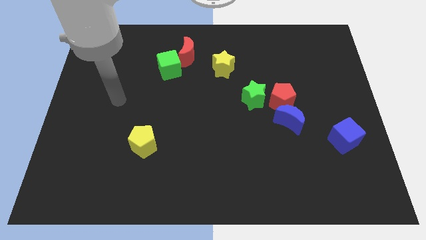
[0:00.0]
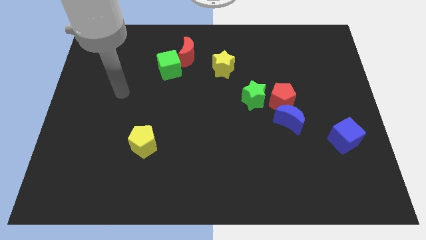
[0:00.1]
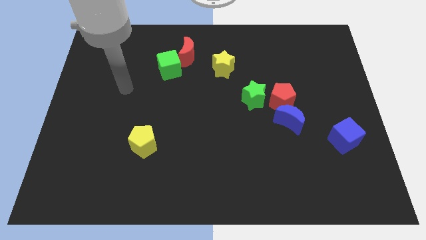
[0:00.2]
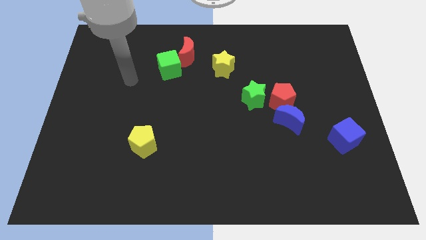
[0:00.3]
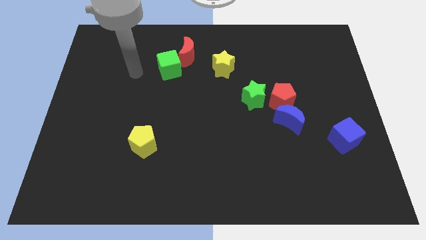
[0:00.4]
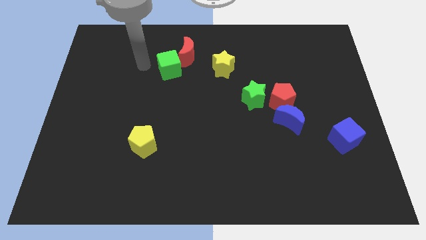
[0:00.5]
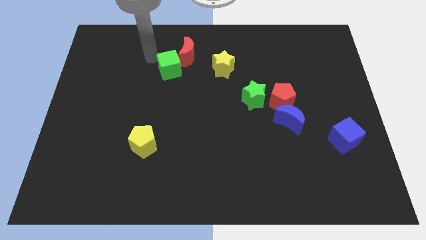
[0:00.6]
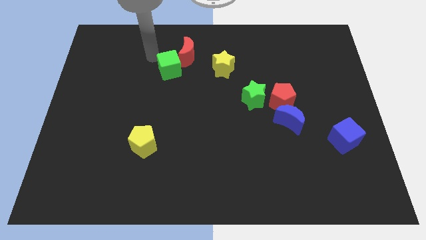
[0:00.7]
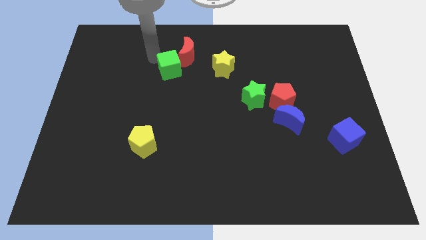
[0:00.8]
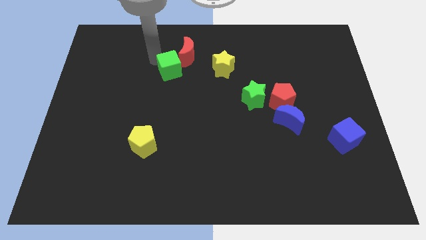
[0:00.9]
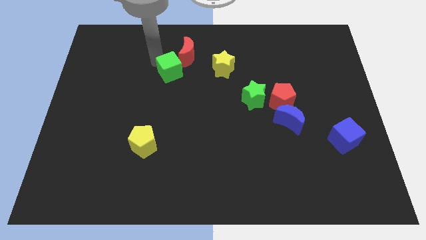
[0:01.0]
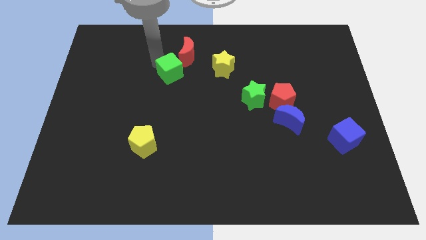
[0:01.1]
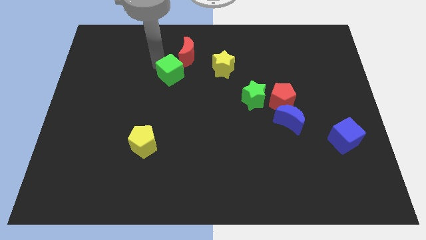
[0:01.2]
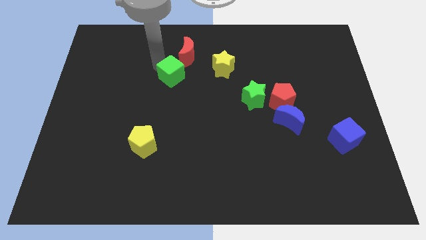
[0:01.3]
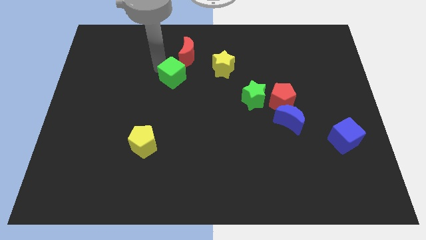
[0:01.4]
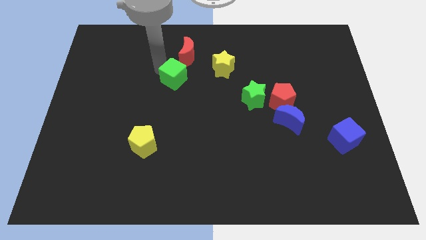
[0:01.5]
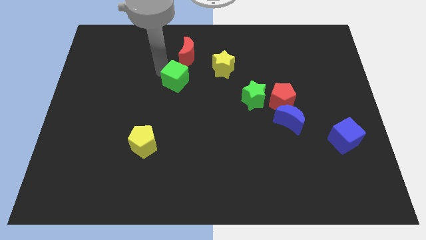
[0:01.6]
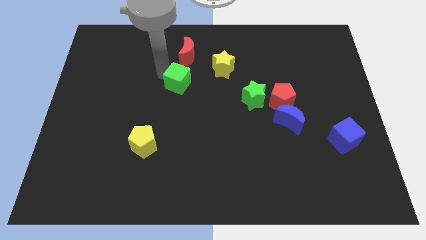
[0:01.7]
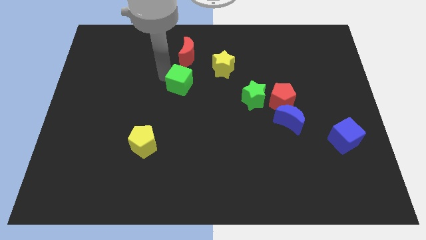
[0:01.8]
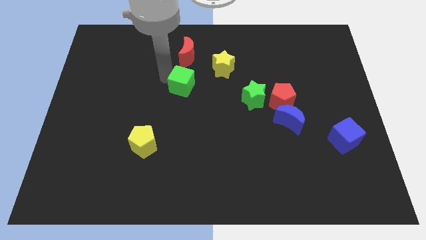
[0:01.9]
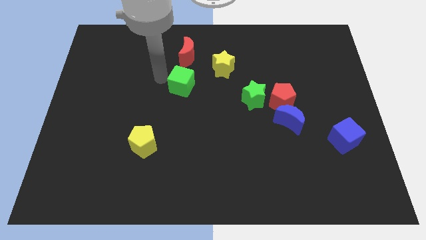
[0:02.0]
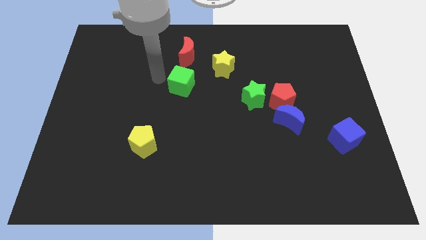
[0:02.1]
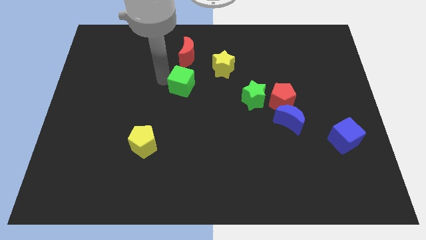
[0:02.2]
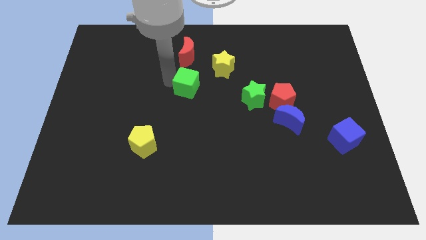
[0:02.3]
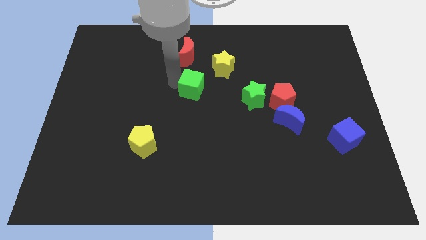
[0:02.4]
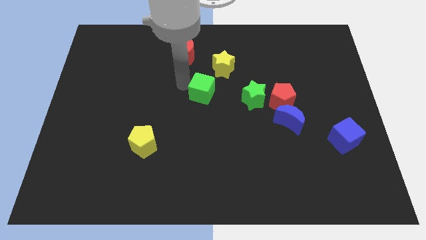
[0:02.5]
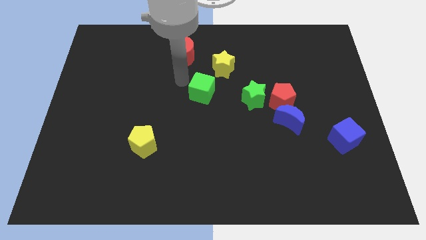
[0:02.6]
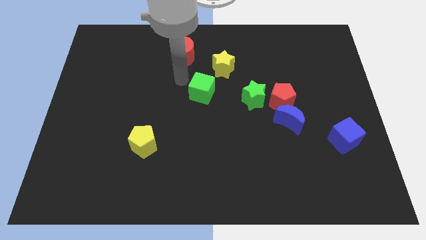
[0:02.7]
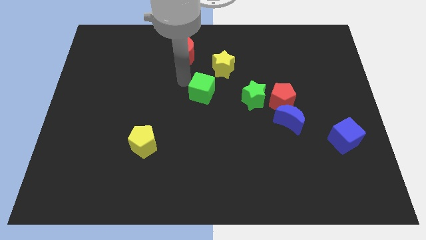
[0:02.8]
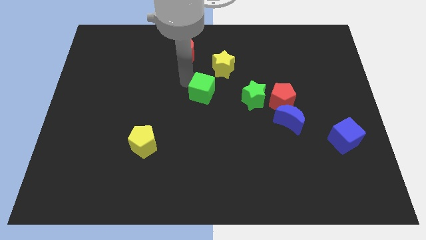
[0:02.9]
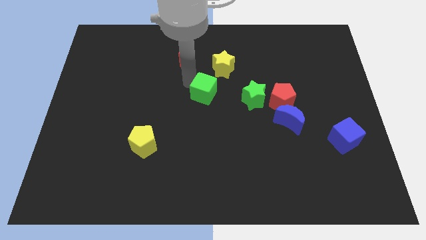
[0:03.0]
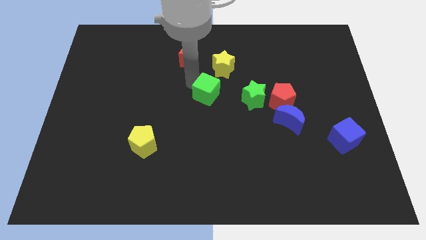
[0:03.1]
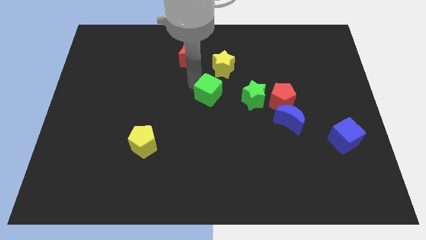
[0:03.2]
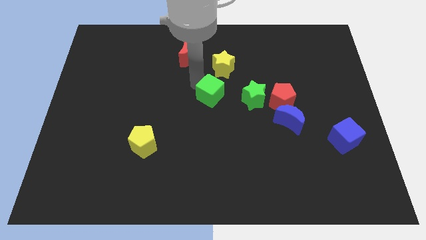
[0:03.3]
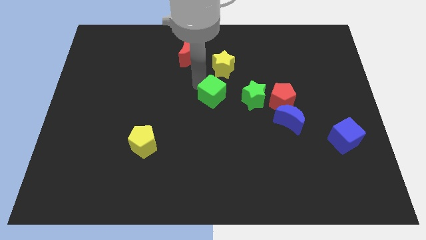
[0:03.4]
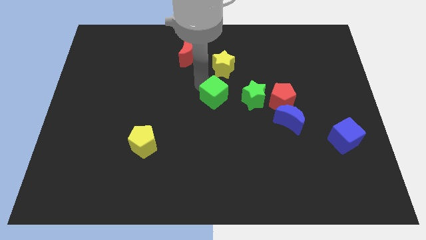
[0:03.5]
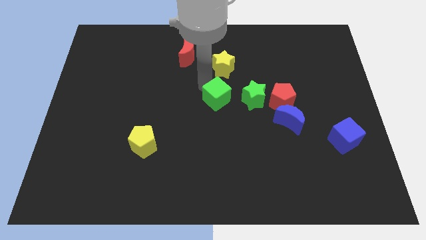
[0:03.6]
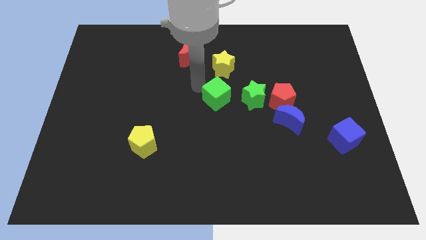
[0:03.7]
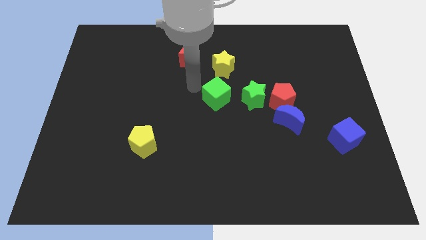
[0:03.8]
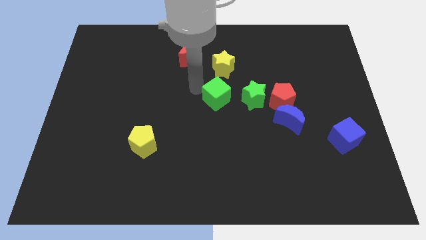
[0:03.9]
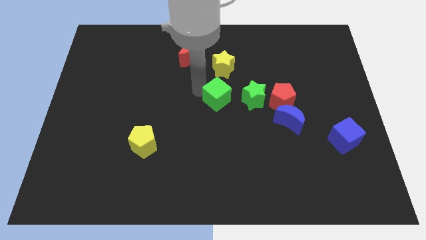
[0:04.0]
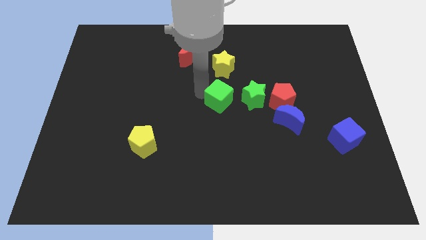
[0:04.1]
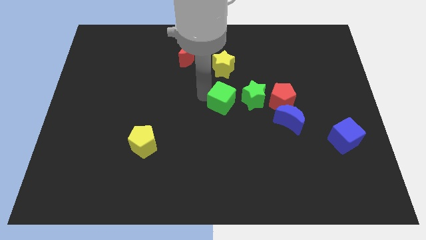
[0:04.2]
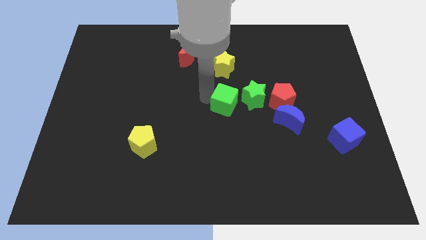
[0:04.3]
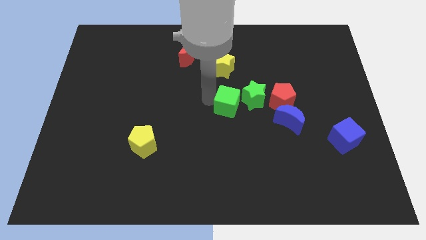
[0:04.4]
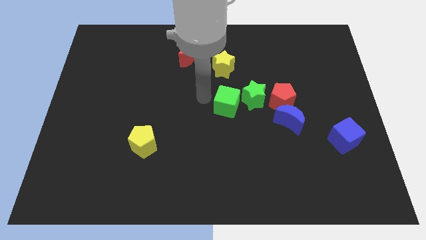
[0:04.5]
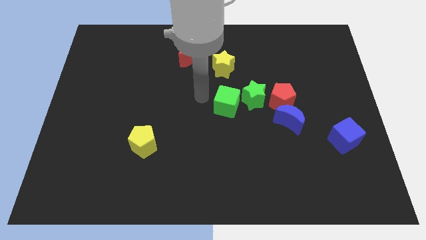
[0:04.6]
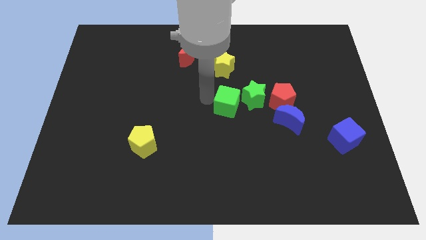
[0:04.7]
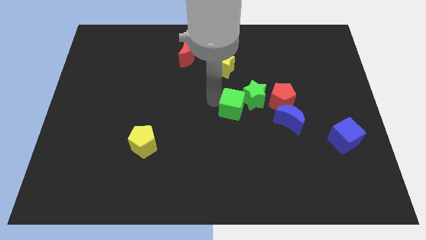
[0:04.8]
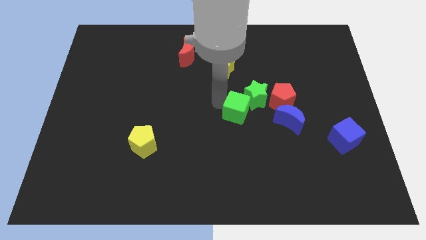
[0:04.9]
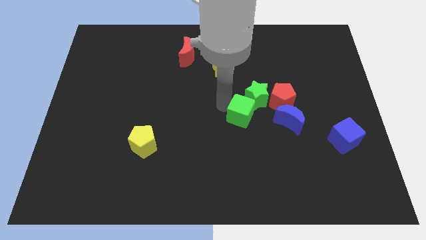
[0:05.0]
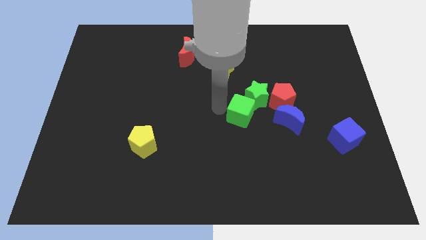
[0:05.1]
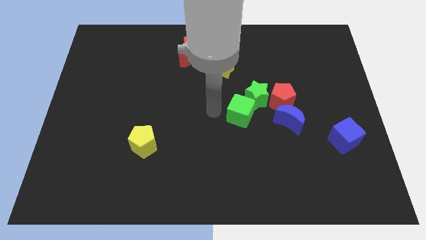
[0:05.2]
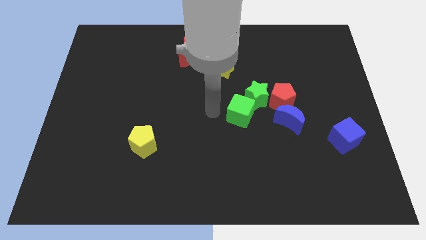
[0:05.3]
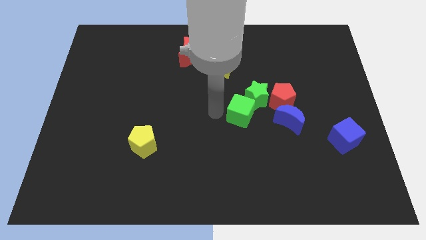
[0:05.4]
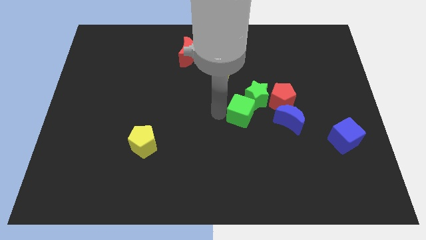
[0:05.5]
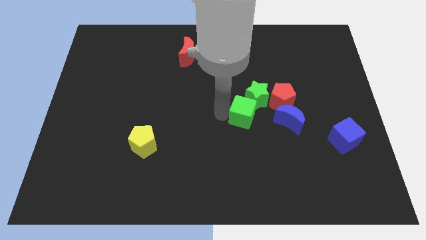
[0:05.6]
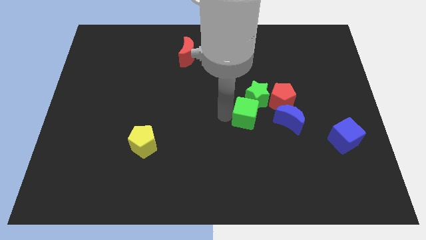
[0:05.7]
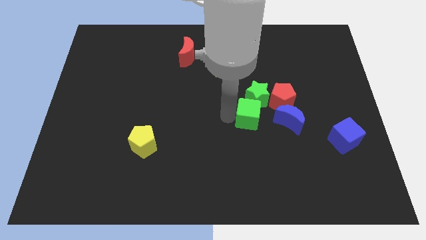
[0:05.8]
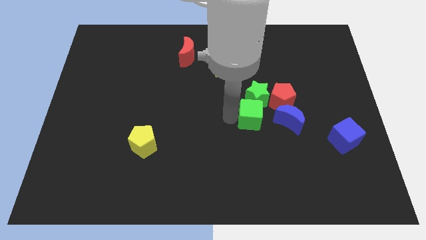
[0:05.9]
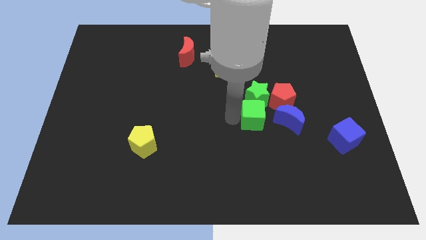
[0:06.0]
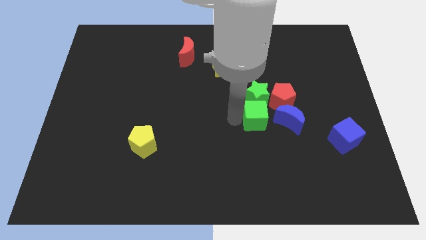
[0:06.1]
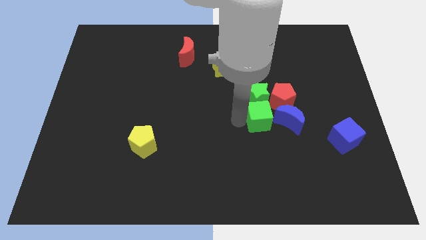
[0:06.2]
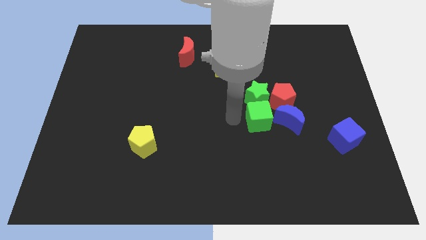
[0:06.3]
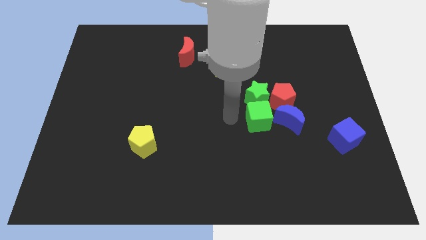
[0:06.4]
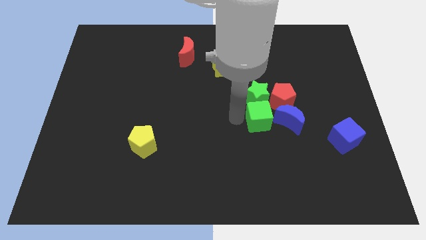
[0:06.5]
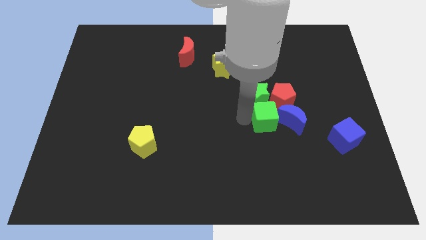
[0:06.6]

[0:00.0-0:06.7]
put the green cube close to the blue moon
